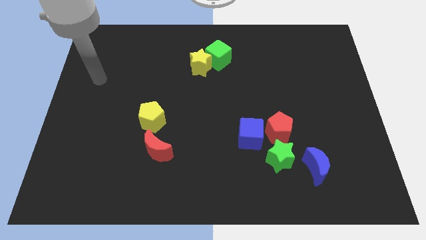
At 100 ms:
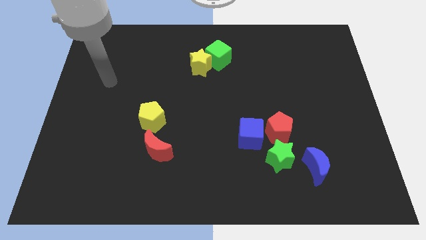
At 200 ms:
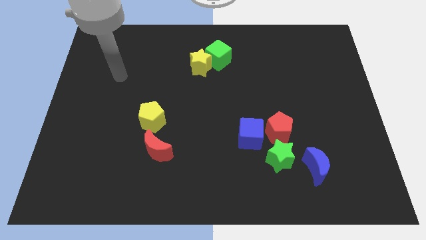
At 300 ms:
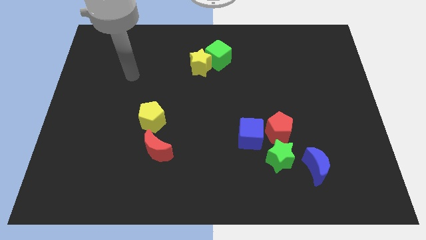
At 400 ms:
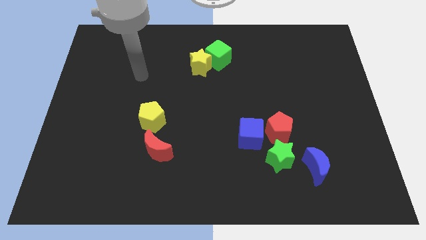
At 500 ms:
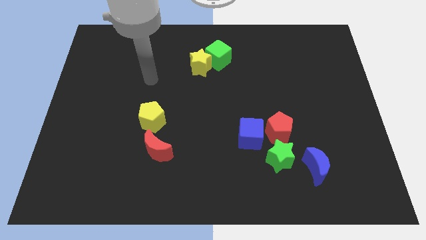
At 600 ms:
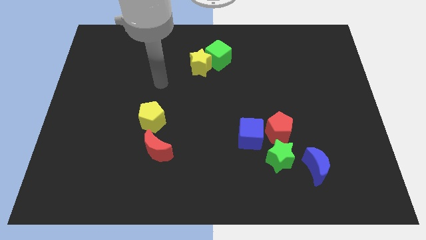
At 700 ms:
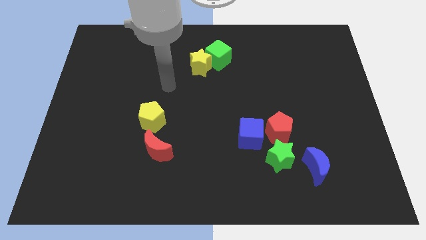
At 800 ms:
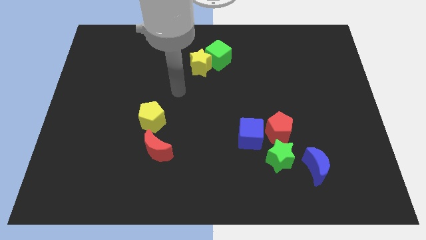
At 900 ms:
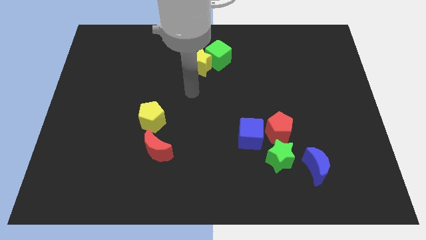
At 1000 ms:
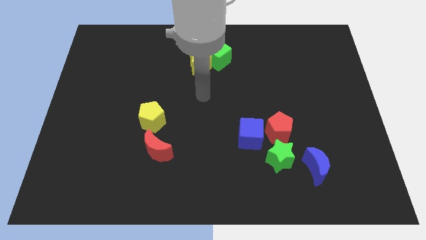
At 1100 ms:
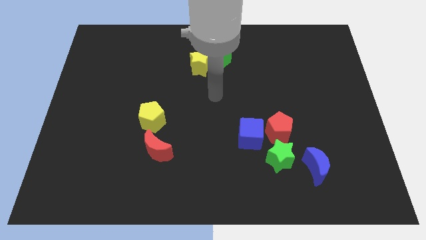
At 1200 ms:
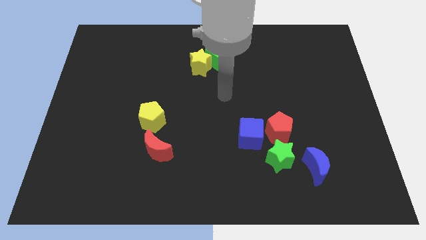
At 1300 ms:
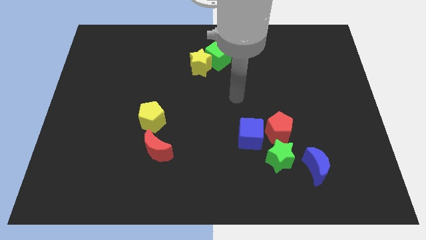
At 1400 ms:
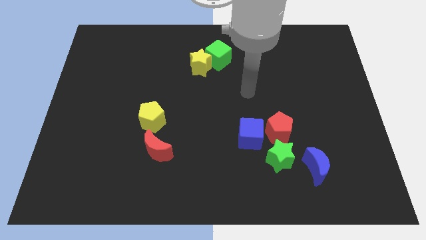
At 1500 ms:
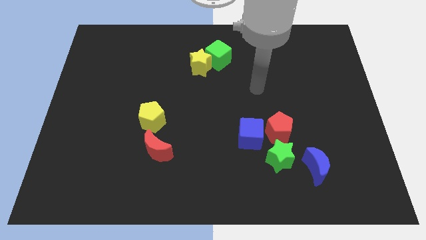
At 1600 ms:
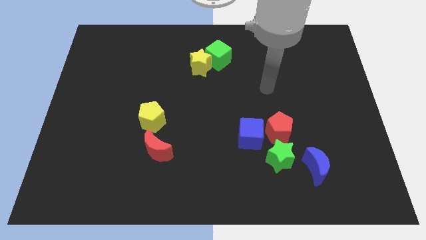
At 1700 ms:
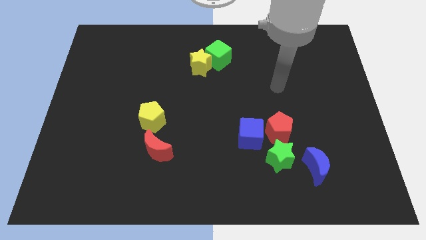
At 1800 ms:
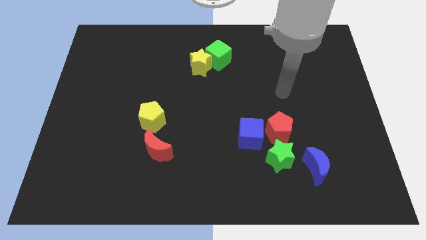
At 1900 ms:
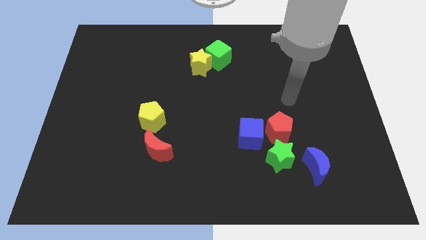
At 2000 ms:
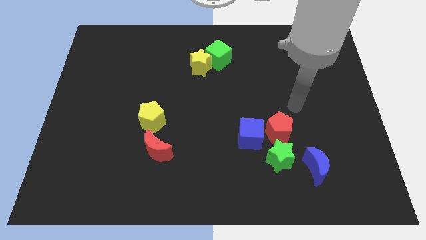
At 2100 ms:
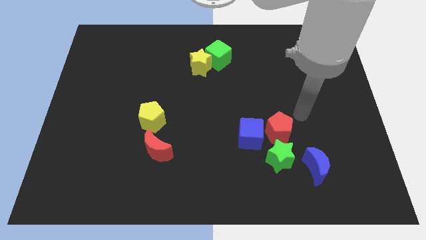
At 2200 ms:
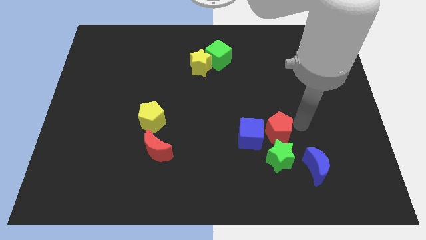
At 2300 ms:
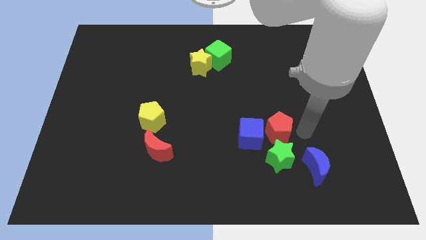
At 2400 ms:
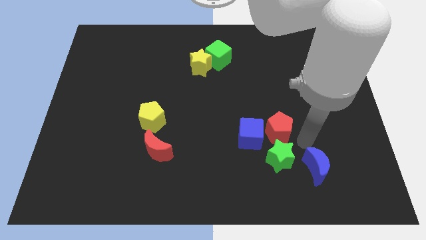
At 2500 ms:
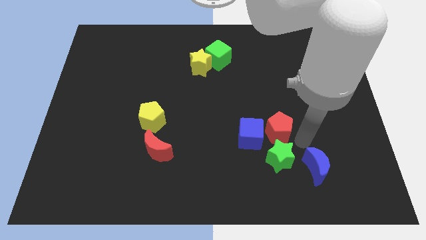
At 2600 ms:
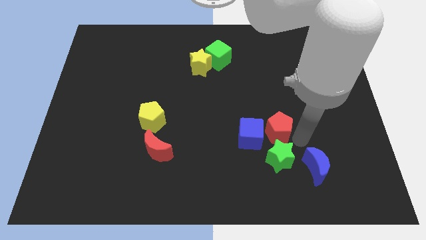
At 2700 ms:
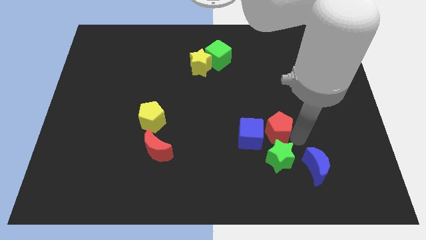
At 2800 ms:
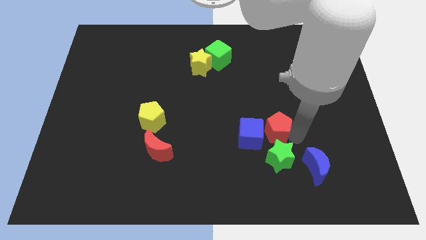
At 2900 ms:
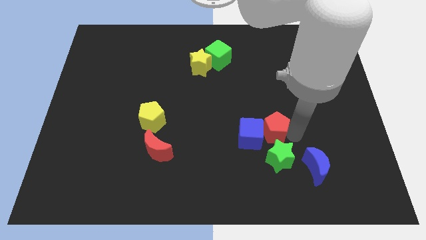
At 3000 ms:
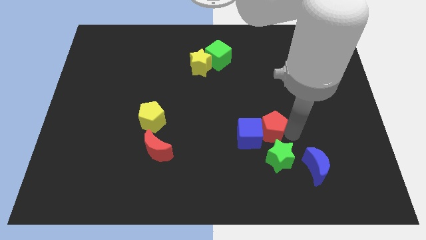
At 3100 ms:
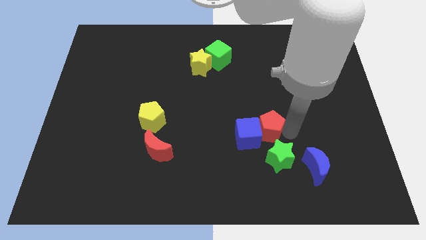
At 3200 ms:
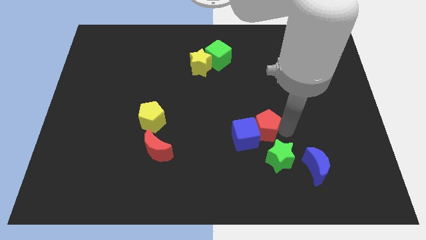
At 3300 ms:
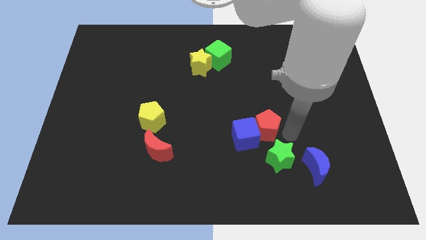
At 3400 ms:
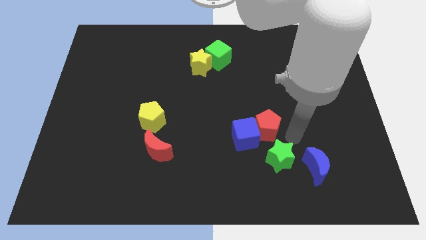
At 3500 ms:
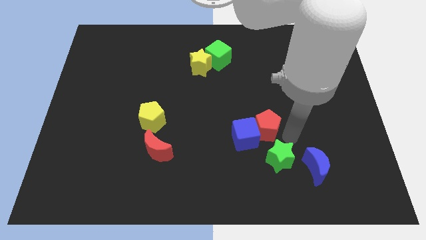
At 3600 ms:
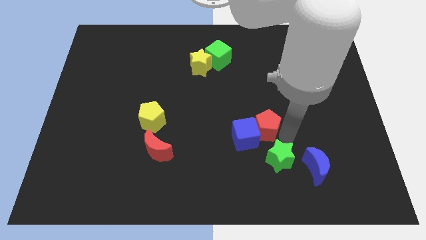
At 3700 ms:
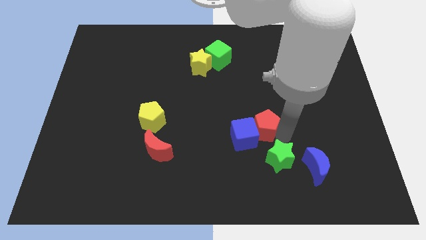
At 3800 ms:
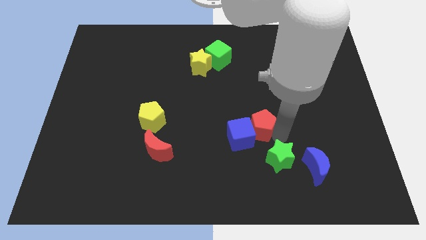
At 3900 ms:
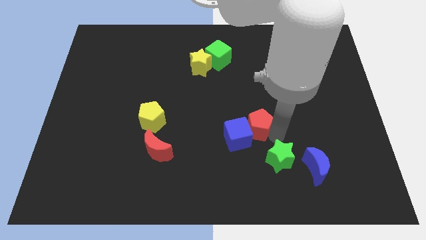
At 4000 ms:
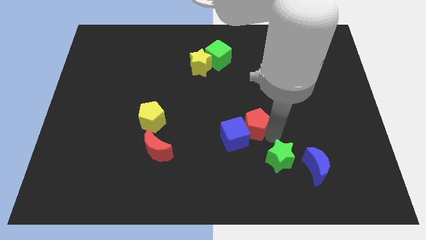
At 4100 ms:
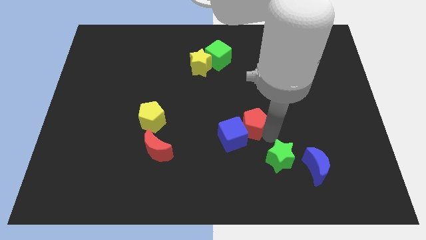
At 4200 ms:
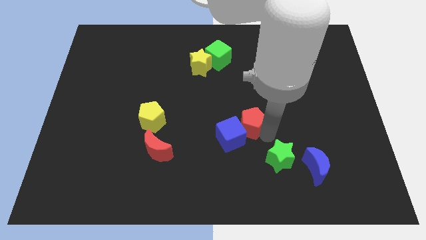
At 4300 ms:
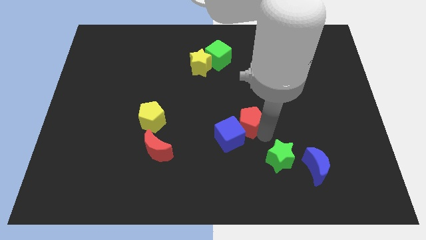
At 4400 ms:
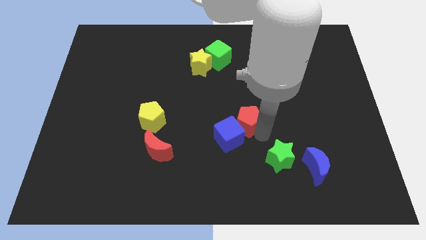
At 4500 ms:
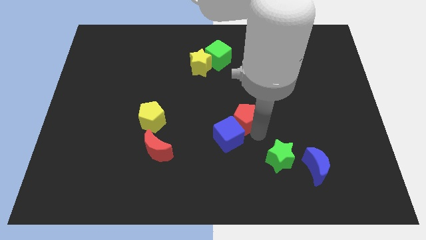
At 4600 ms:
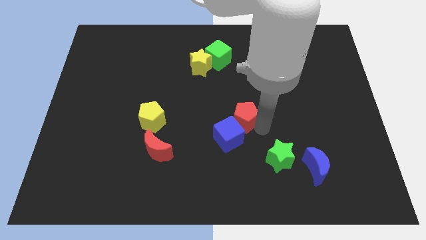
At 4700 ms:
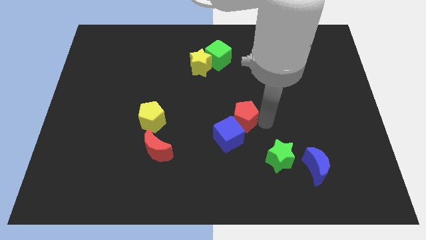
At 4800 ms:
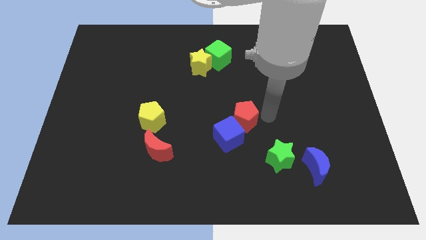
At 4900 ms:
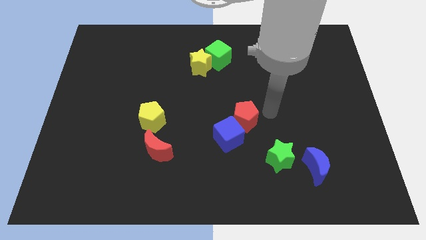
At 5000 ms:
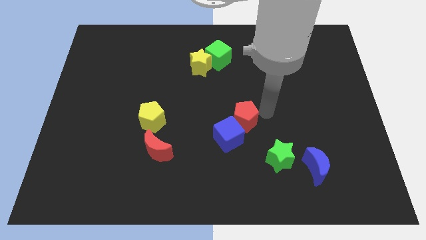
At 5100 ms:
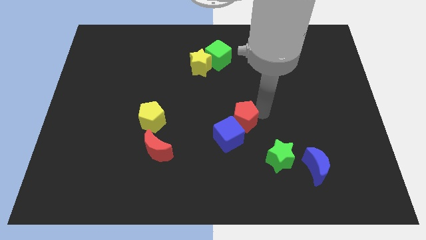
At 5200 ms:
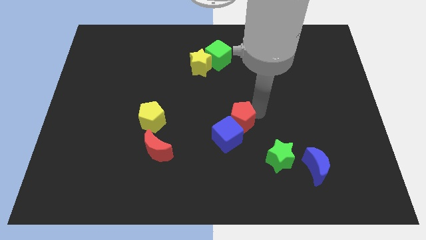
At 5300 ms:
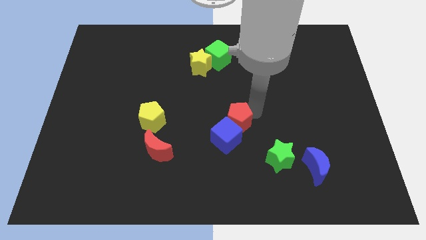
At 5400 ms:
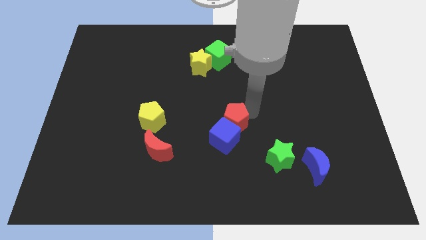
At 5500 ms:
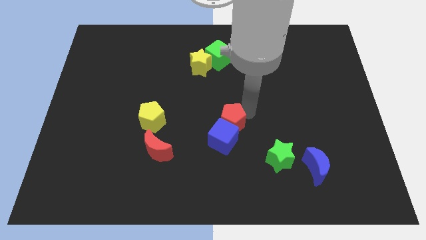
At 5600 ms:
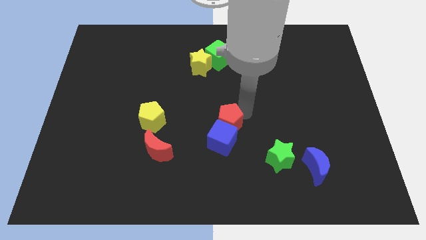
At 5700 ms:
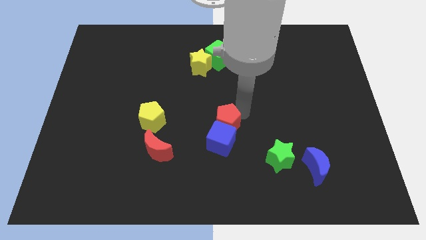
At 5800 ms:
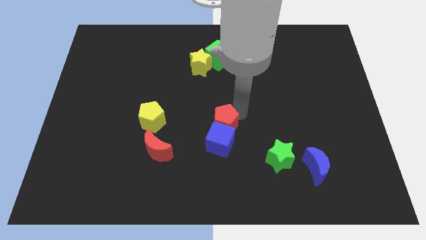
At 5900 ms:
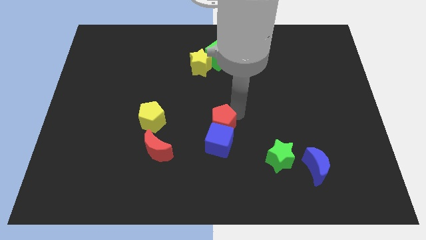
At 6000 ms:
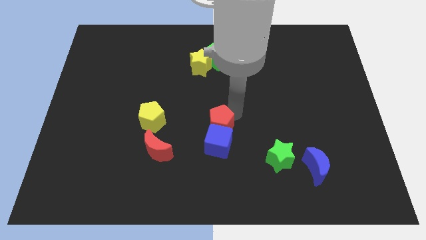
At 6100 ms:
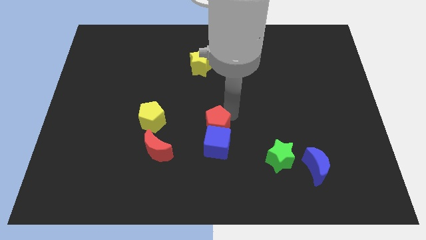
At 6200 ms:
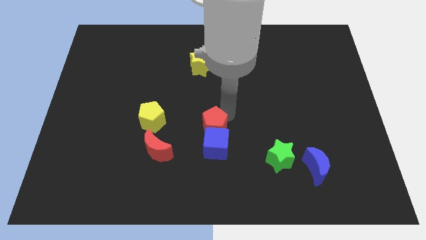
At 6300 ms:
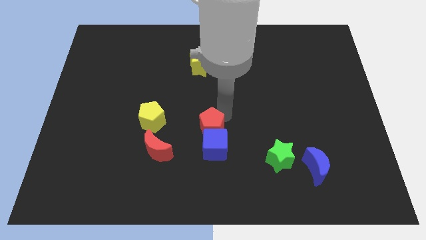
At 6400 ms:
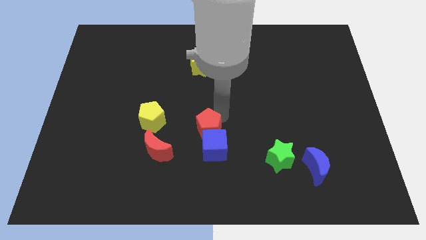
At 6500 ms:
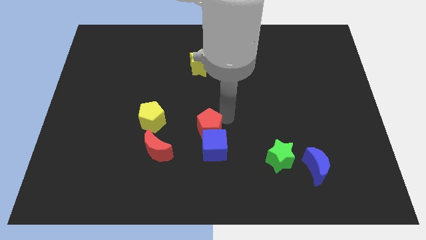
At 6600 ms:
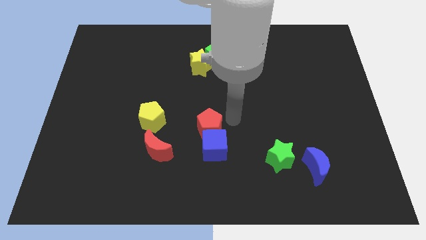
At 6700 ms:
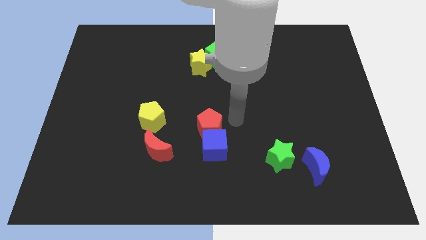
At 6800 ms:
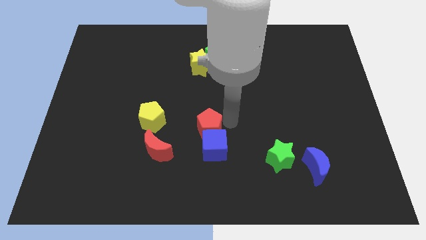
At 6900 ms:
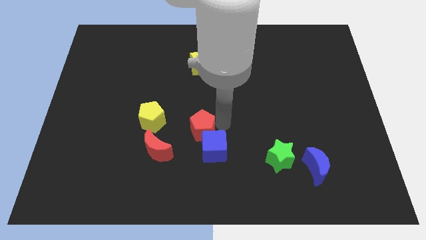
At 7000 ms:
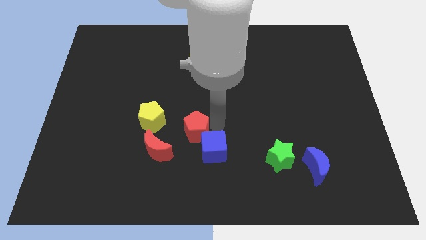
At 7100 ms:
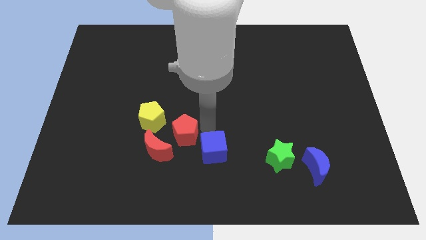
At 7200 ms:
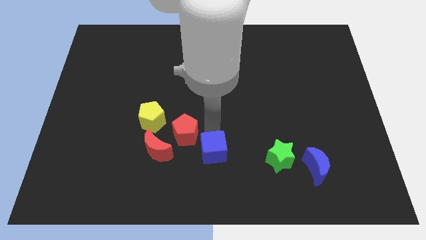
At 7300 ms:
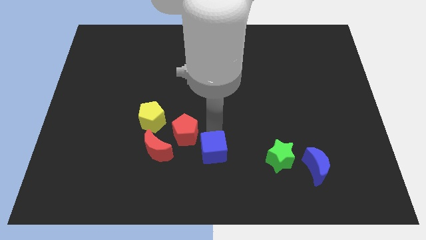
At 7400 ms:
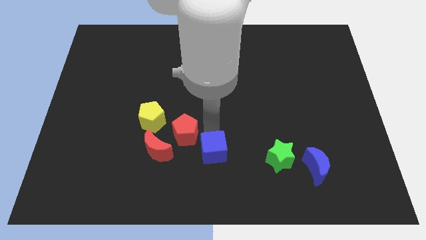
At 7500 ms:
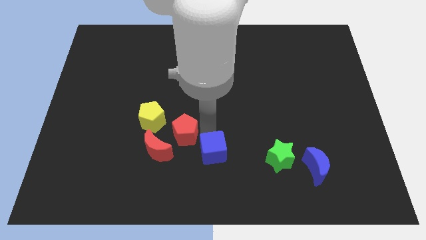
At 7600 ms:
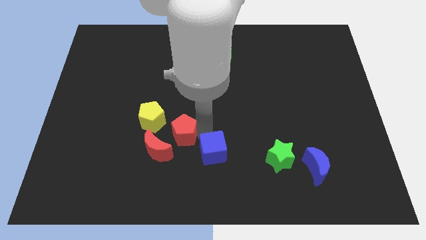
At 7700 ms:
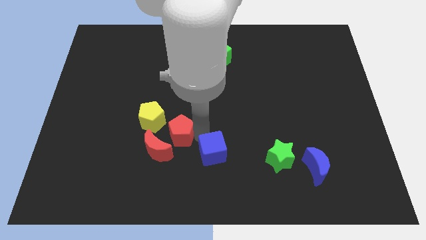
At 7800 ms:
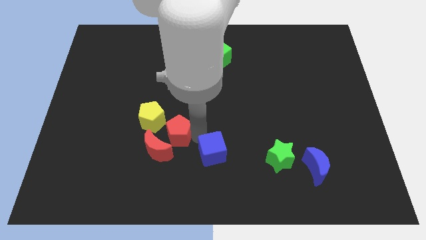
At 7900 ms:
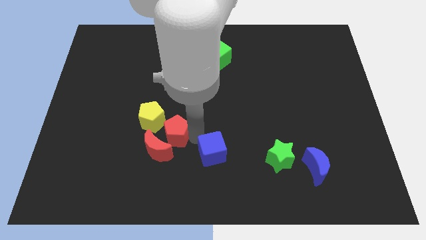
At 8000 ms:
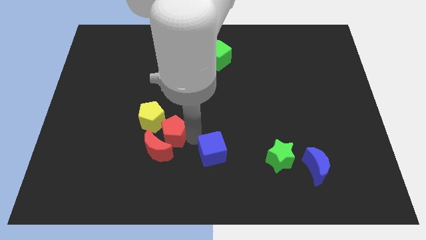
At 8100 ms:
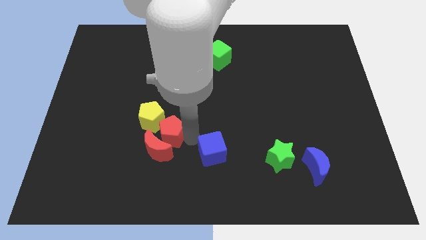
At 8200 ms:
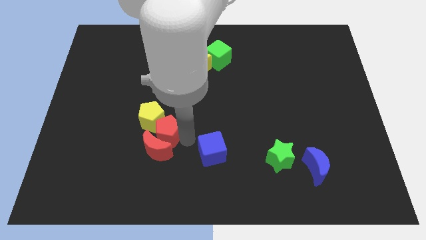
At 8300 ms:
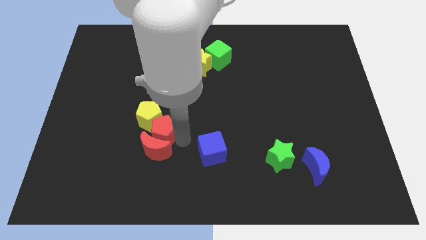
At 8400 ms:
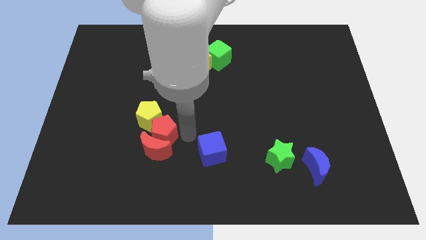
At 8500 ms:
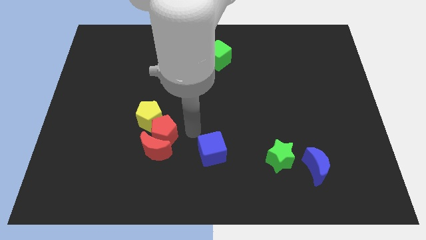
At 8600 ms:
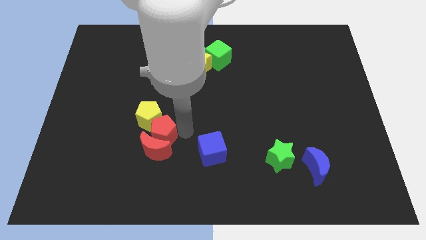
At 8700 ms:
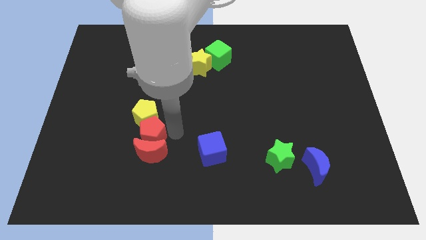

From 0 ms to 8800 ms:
put the red pentagon to the bottom left of the yellow pentagon
